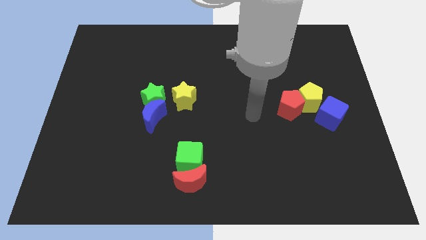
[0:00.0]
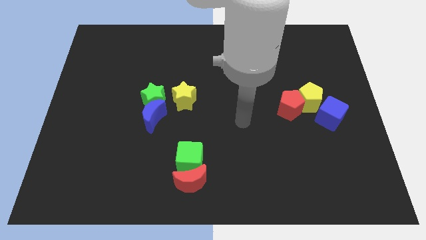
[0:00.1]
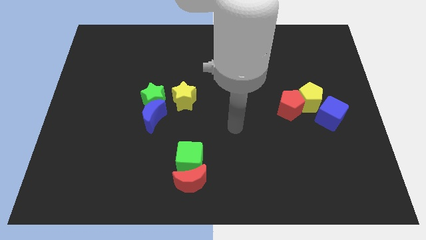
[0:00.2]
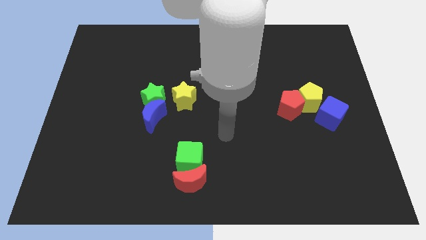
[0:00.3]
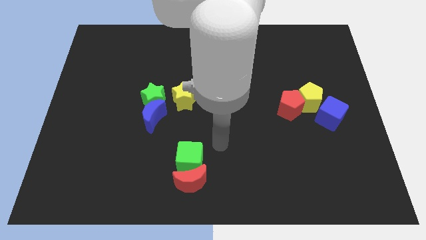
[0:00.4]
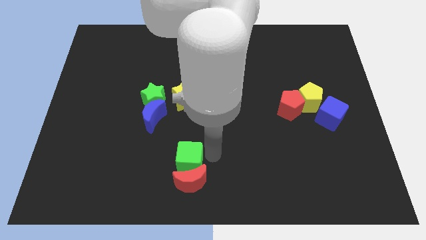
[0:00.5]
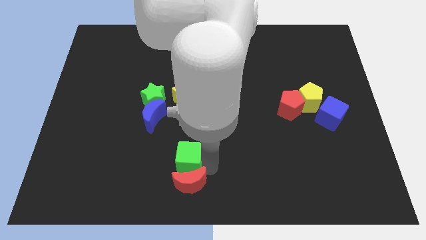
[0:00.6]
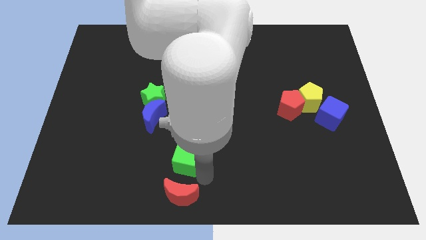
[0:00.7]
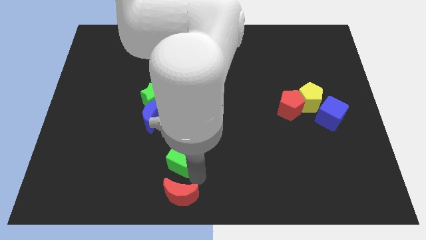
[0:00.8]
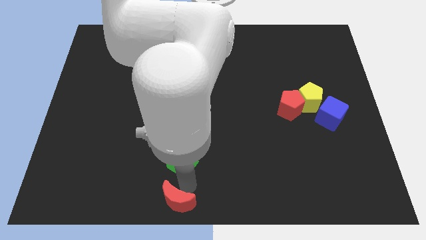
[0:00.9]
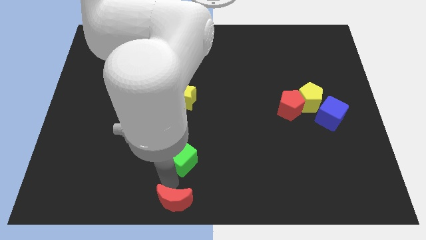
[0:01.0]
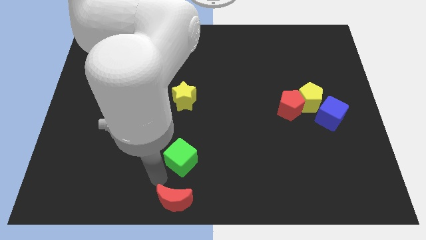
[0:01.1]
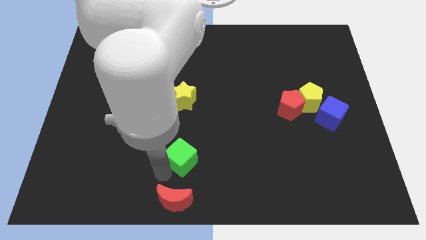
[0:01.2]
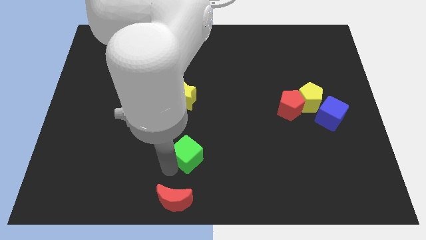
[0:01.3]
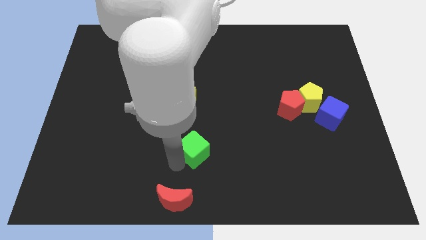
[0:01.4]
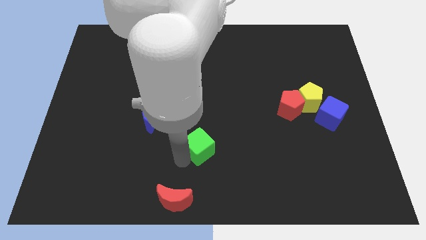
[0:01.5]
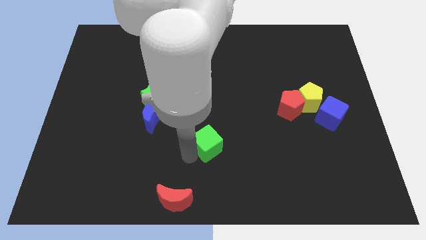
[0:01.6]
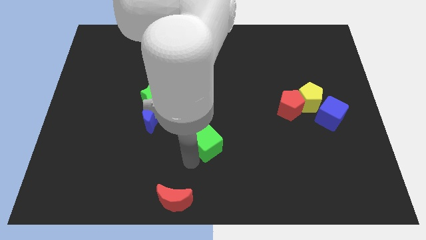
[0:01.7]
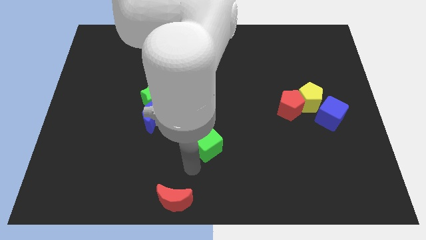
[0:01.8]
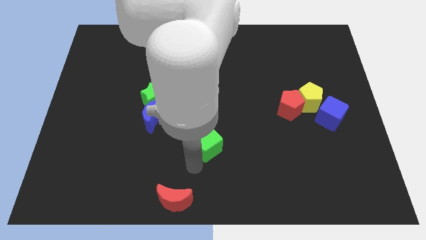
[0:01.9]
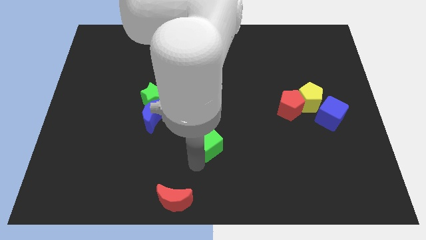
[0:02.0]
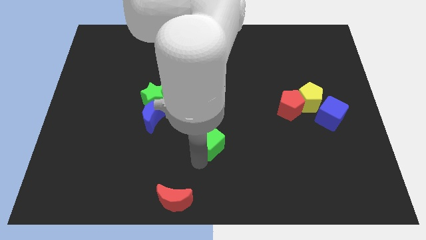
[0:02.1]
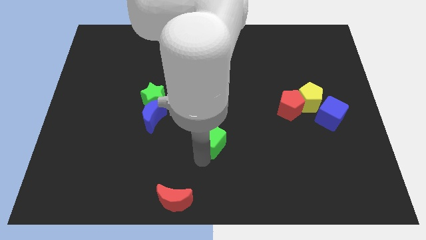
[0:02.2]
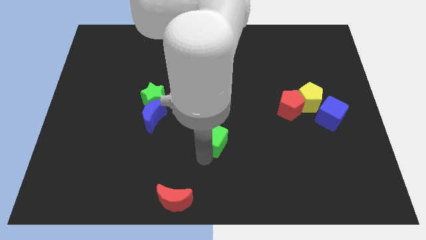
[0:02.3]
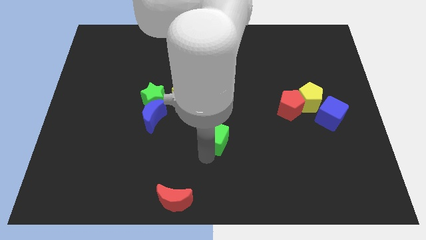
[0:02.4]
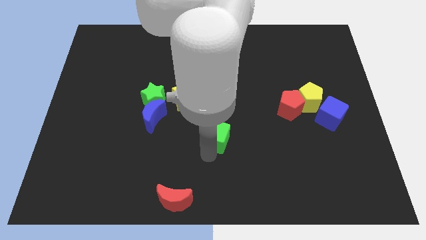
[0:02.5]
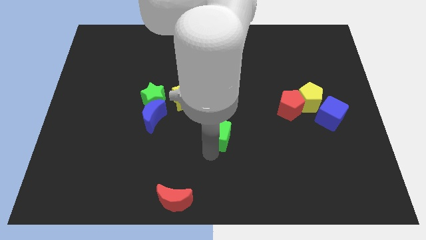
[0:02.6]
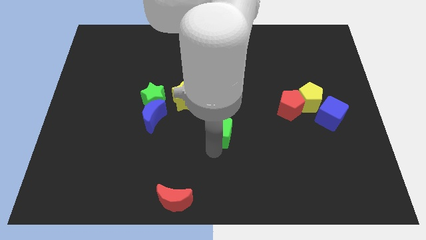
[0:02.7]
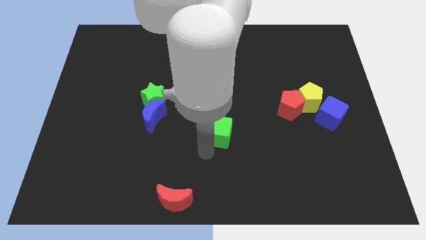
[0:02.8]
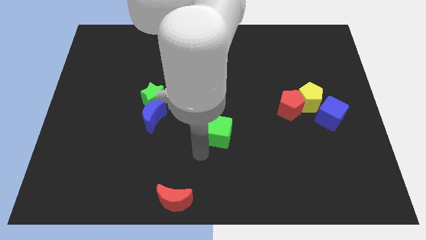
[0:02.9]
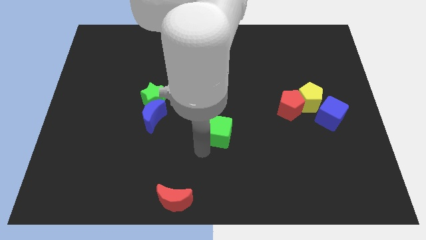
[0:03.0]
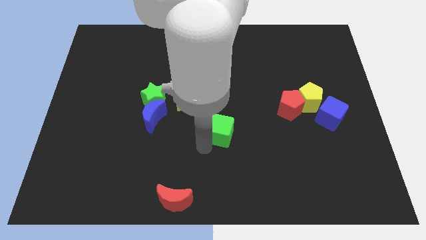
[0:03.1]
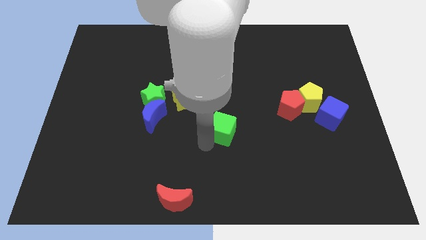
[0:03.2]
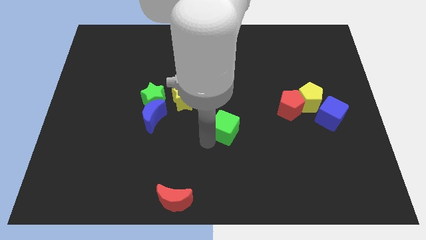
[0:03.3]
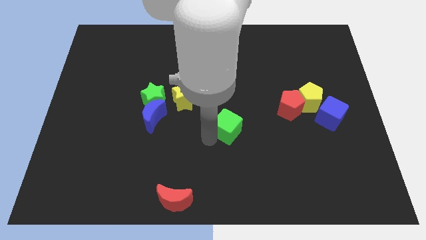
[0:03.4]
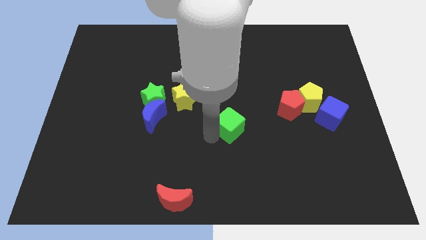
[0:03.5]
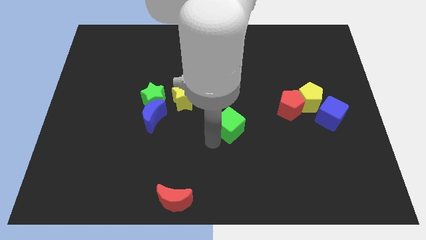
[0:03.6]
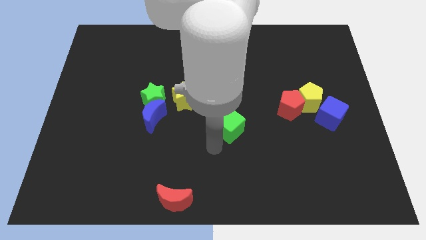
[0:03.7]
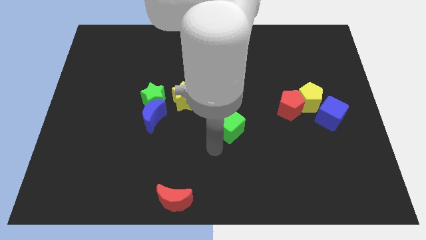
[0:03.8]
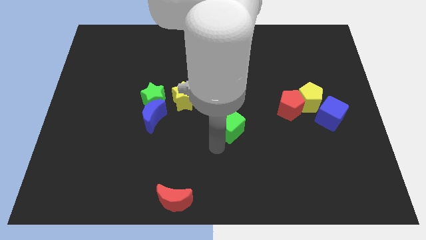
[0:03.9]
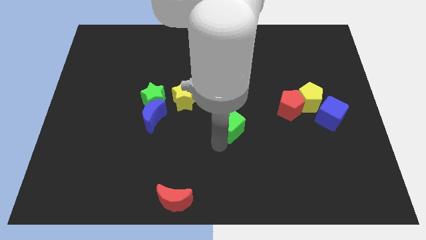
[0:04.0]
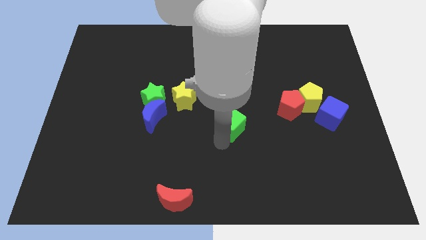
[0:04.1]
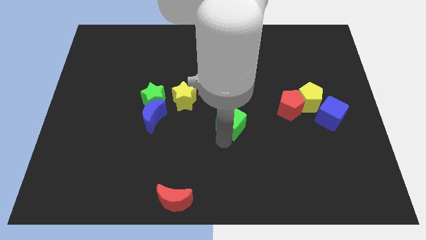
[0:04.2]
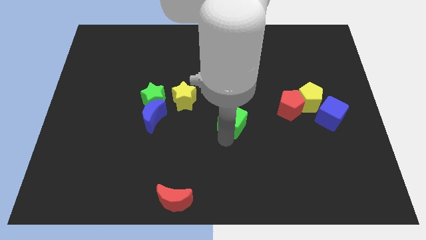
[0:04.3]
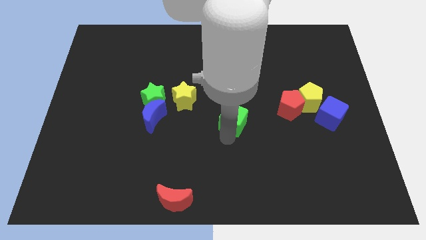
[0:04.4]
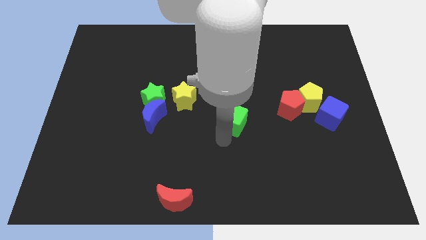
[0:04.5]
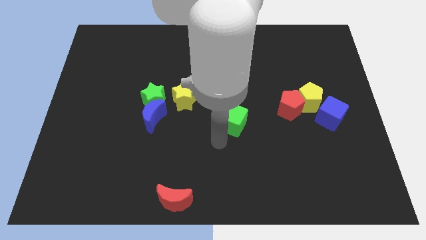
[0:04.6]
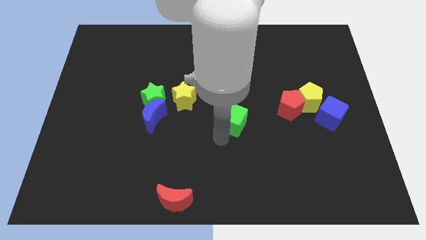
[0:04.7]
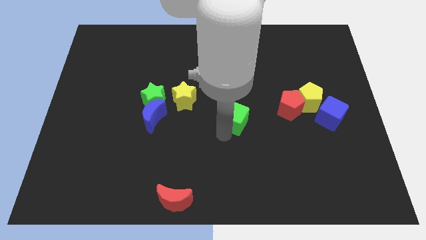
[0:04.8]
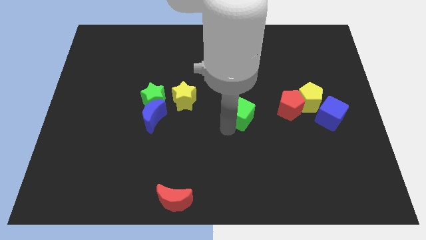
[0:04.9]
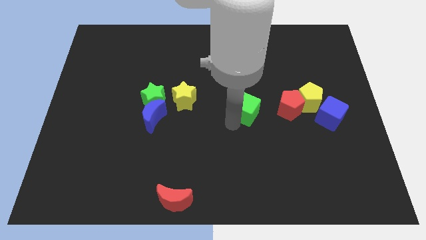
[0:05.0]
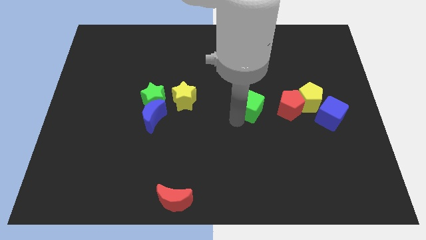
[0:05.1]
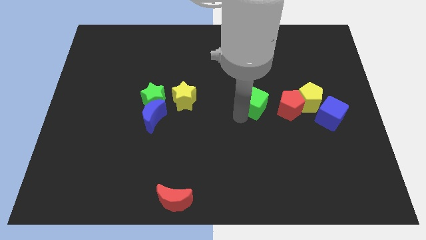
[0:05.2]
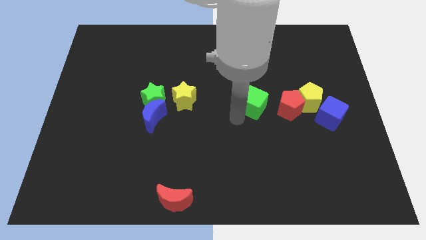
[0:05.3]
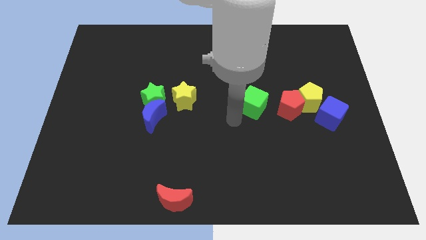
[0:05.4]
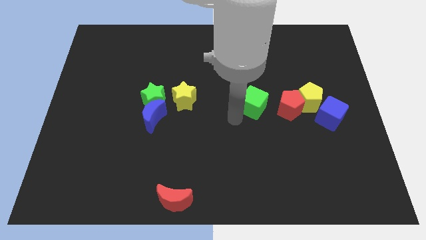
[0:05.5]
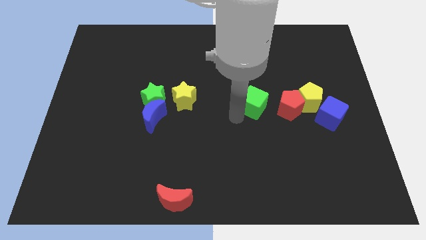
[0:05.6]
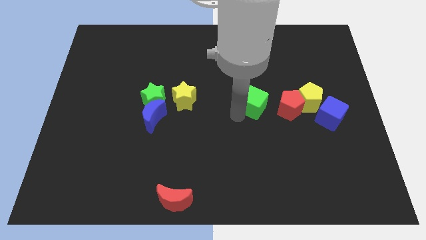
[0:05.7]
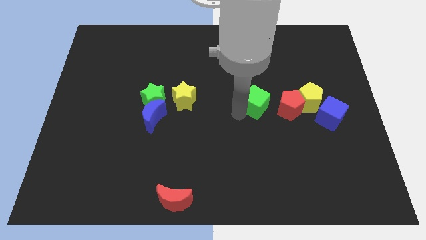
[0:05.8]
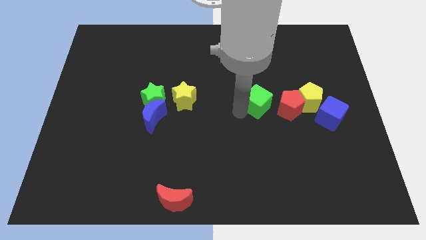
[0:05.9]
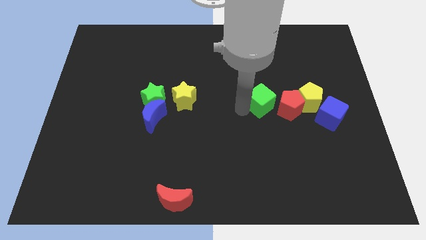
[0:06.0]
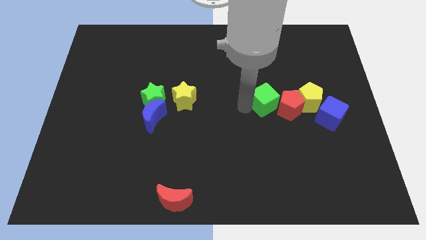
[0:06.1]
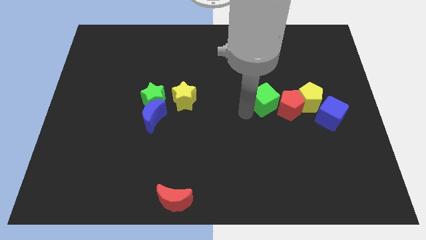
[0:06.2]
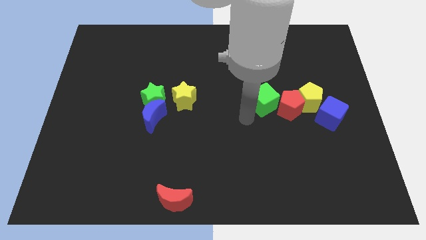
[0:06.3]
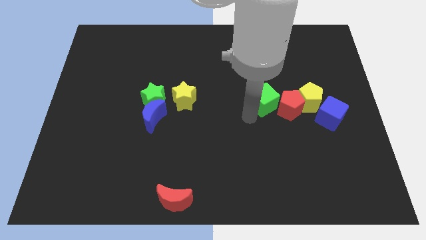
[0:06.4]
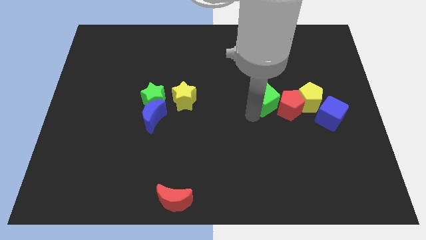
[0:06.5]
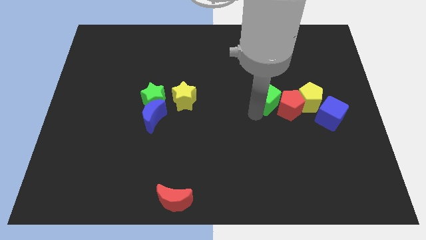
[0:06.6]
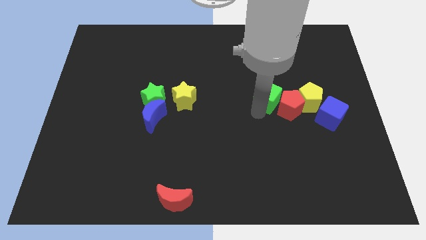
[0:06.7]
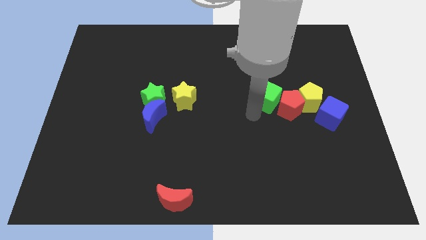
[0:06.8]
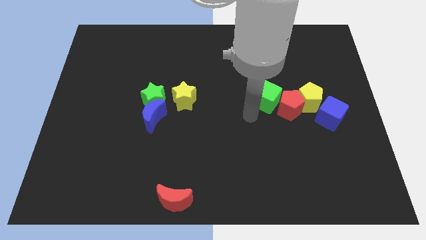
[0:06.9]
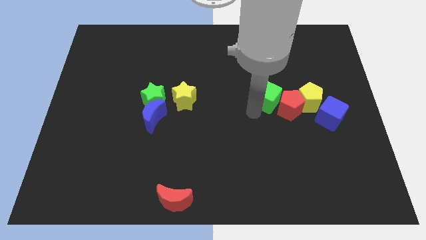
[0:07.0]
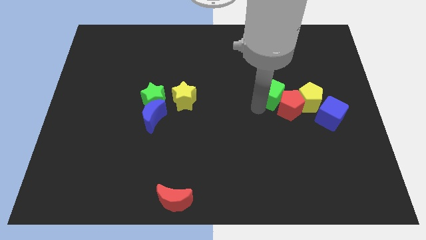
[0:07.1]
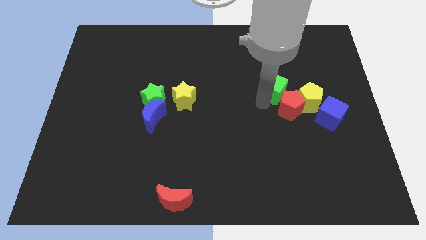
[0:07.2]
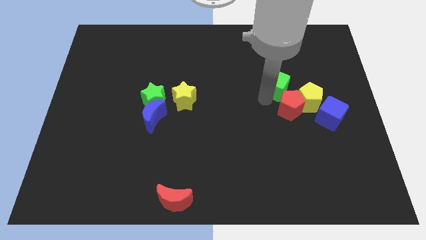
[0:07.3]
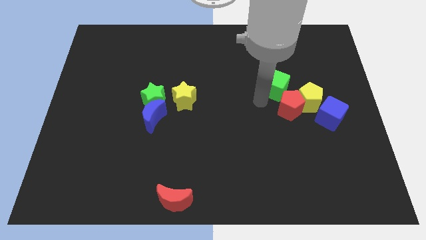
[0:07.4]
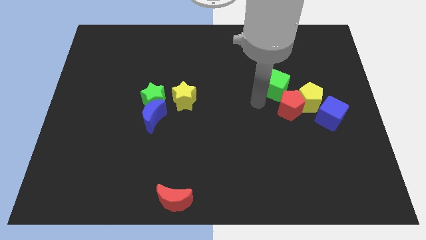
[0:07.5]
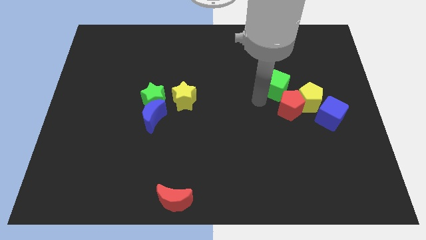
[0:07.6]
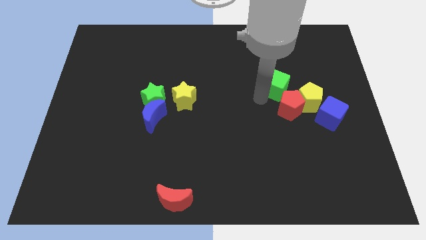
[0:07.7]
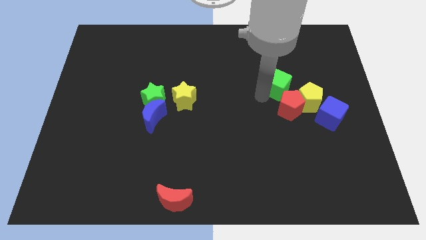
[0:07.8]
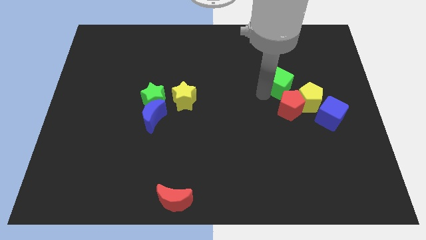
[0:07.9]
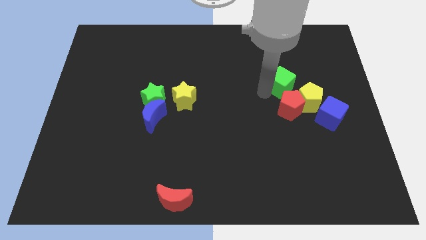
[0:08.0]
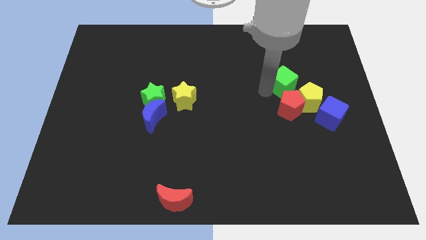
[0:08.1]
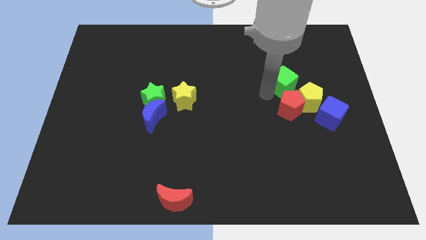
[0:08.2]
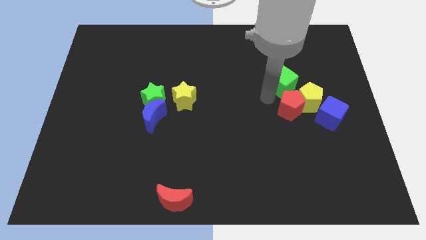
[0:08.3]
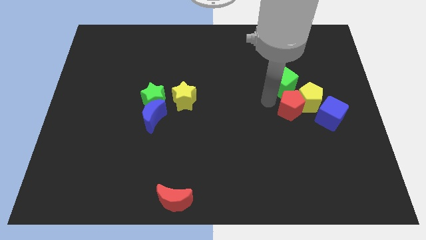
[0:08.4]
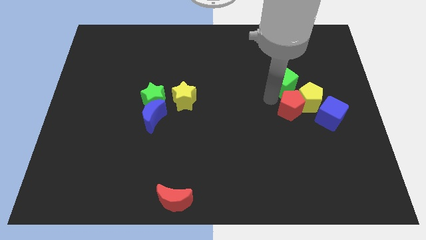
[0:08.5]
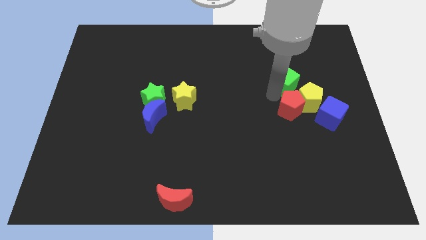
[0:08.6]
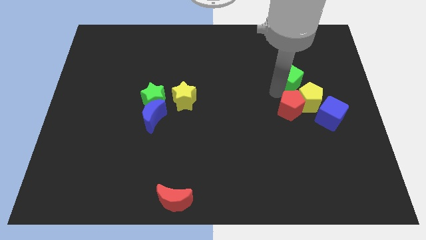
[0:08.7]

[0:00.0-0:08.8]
slide the green cube above the yellow pentagon
